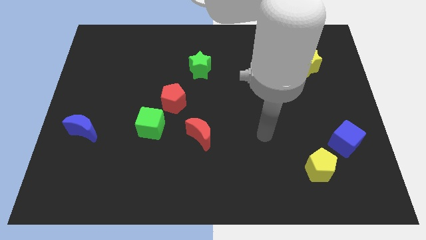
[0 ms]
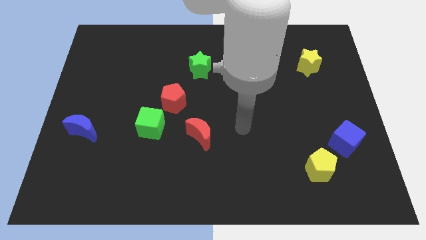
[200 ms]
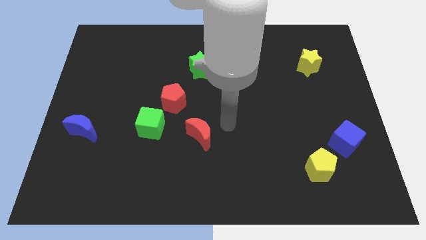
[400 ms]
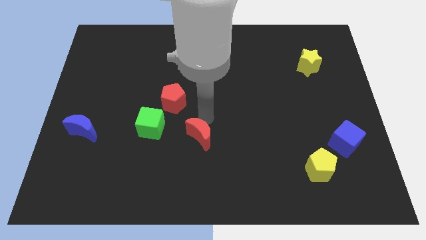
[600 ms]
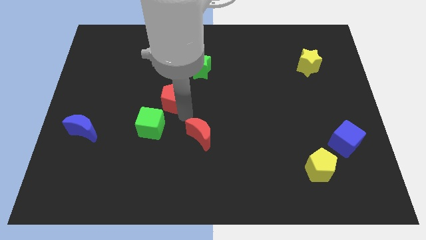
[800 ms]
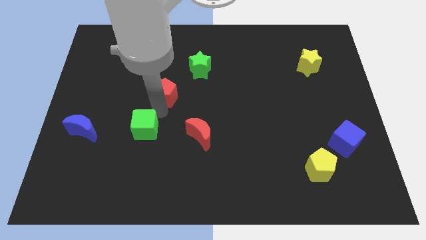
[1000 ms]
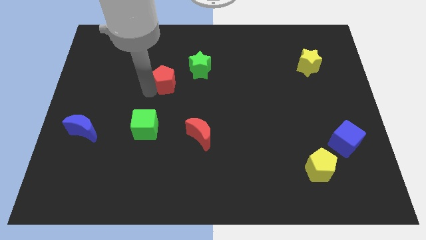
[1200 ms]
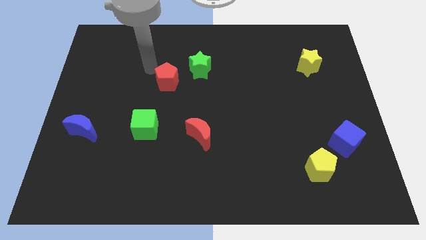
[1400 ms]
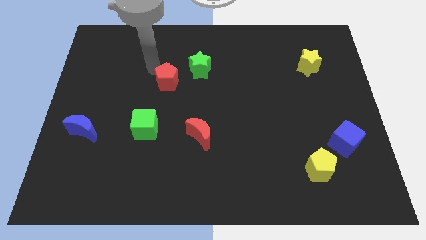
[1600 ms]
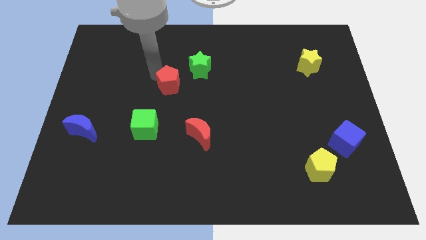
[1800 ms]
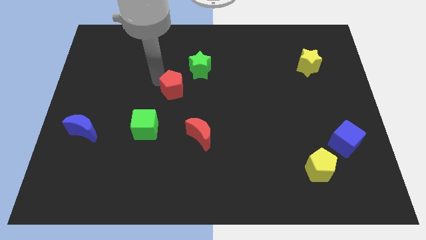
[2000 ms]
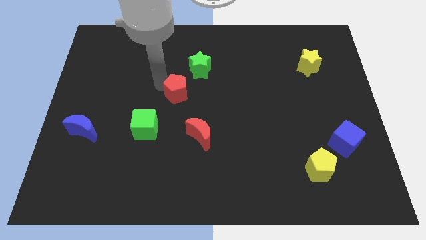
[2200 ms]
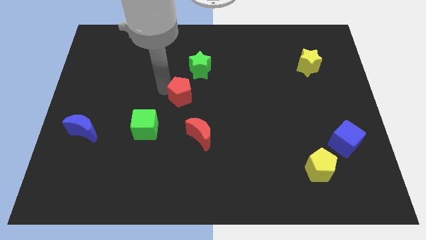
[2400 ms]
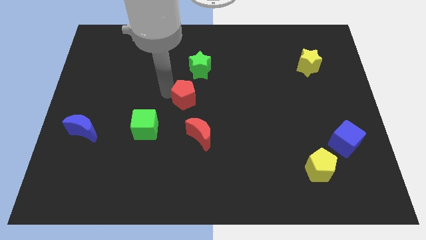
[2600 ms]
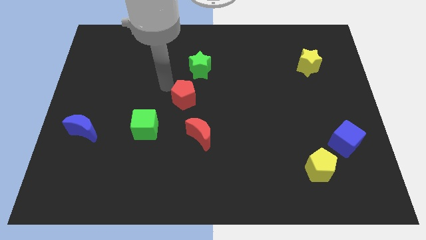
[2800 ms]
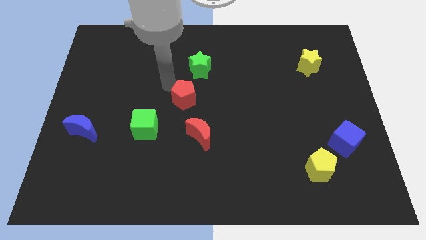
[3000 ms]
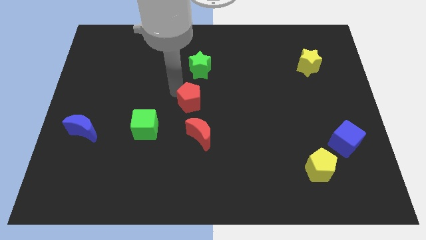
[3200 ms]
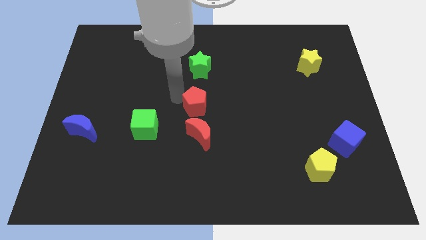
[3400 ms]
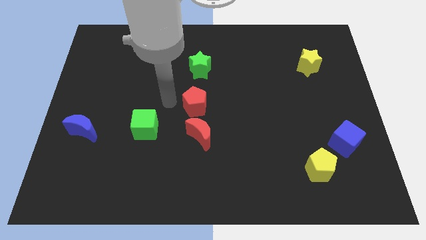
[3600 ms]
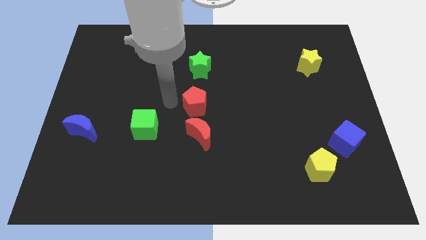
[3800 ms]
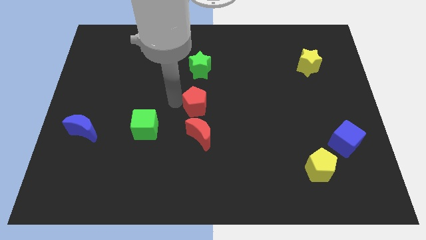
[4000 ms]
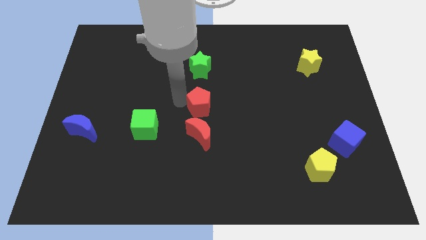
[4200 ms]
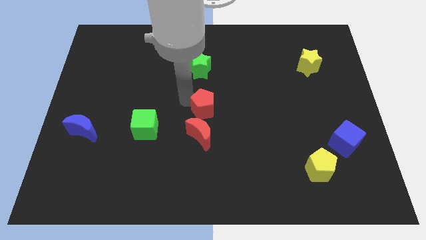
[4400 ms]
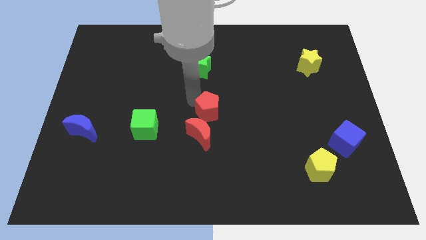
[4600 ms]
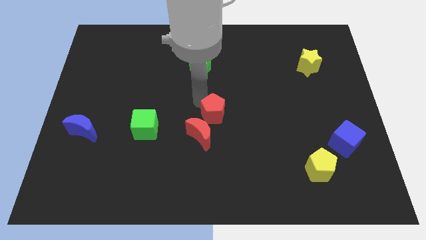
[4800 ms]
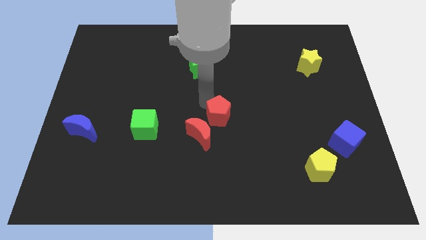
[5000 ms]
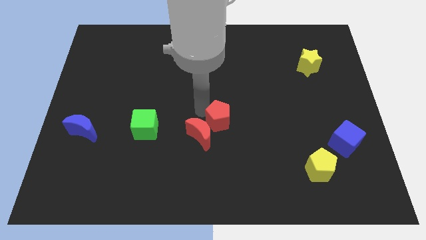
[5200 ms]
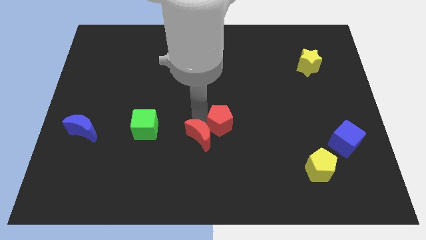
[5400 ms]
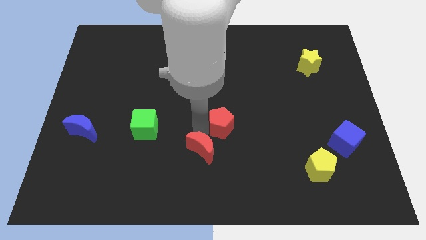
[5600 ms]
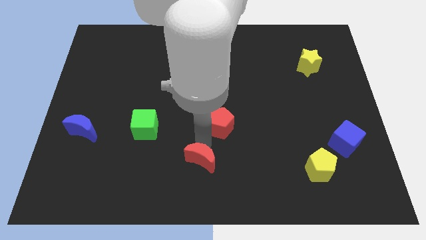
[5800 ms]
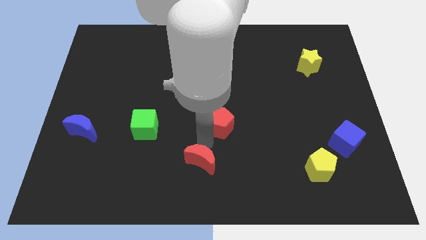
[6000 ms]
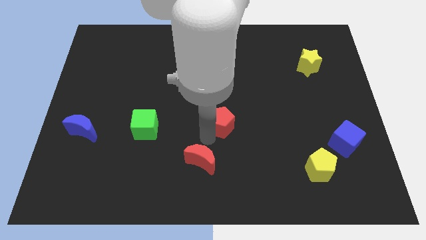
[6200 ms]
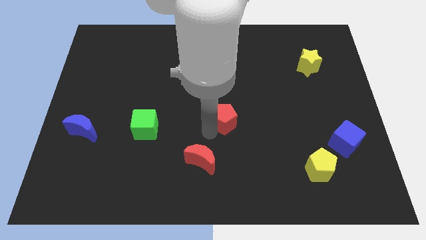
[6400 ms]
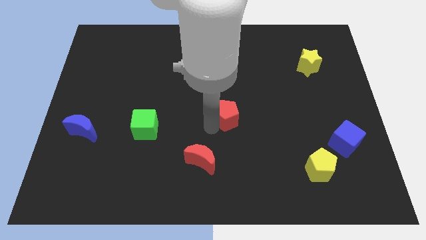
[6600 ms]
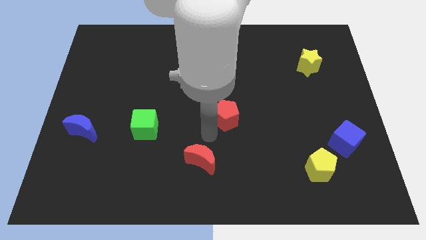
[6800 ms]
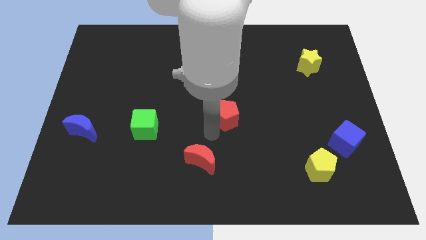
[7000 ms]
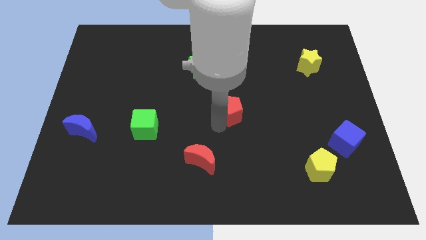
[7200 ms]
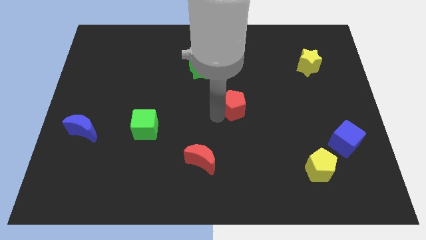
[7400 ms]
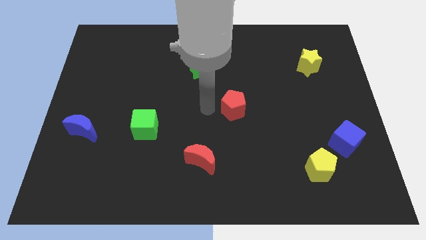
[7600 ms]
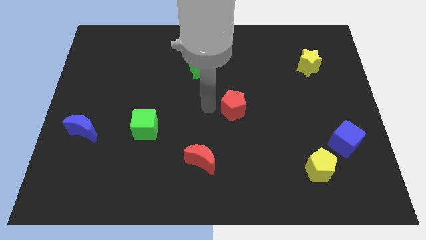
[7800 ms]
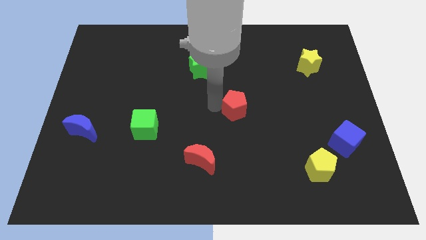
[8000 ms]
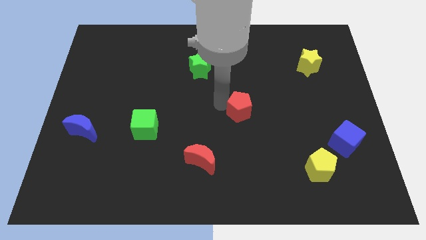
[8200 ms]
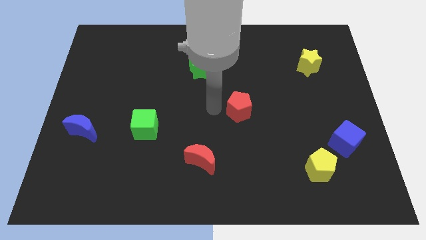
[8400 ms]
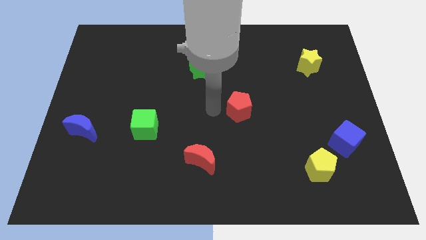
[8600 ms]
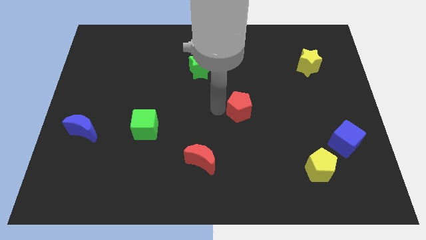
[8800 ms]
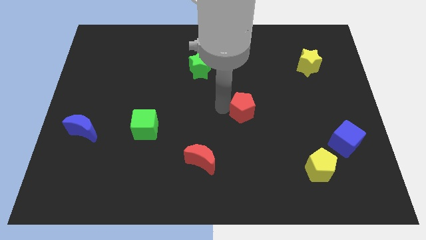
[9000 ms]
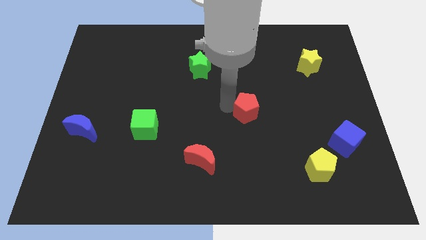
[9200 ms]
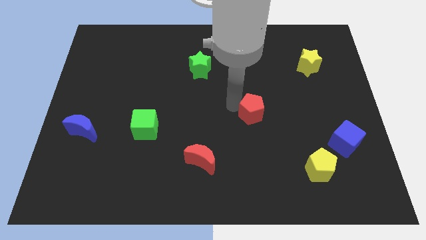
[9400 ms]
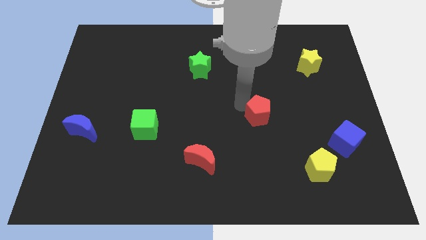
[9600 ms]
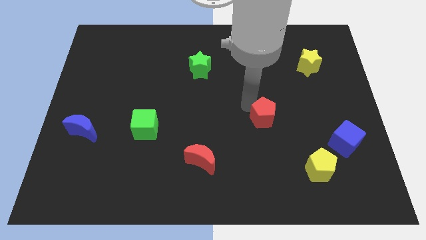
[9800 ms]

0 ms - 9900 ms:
move the red pentagon right

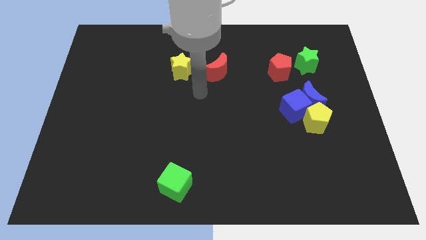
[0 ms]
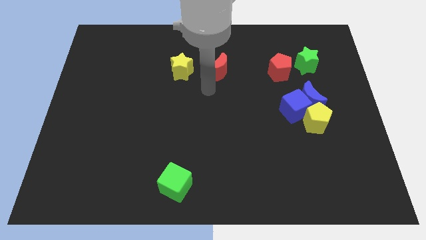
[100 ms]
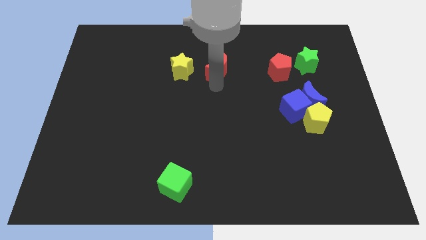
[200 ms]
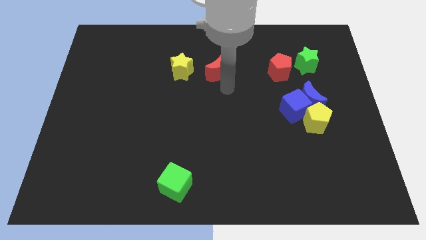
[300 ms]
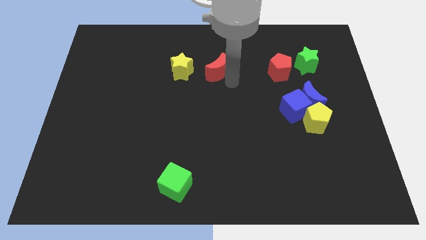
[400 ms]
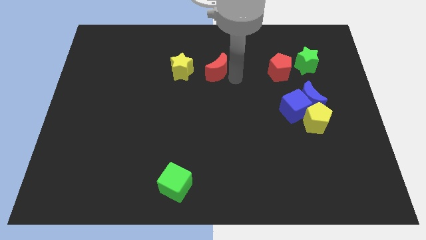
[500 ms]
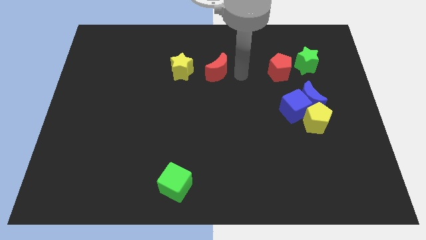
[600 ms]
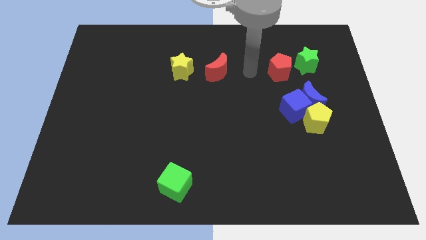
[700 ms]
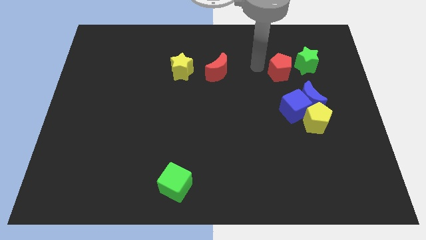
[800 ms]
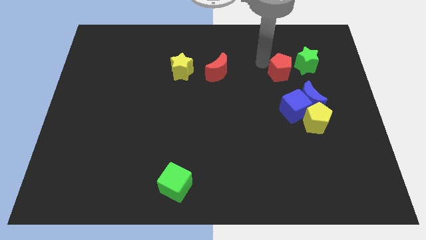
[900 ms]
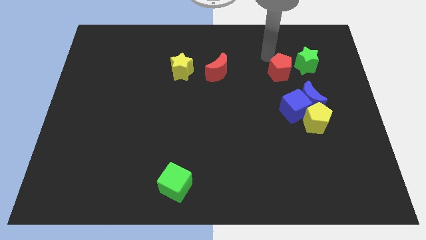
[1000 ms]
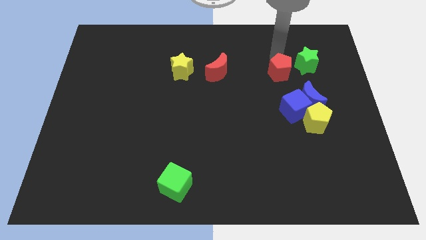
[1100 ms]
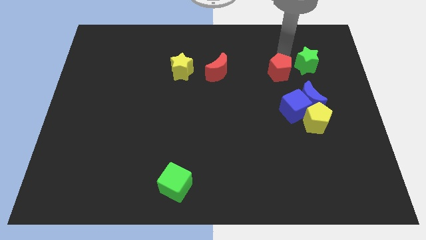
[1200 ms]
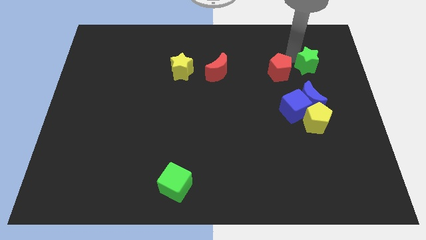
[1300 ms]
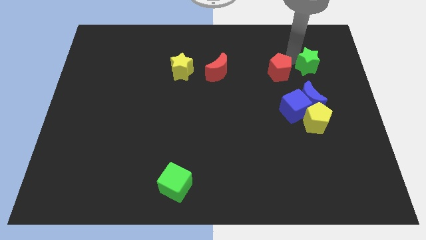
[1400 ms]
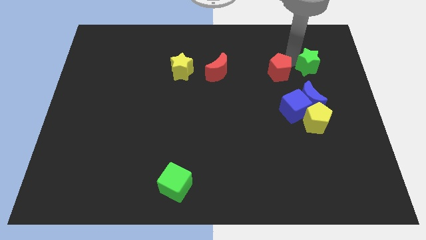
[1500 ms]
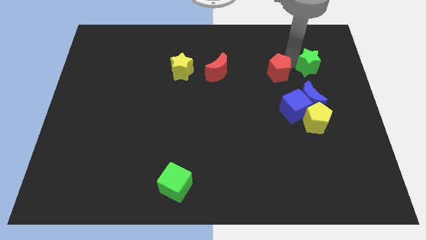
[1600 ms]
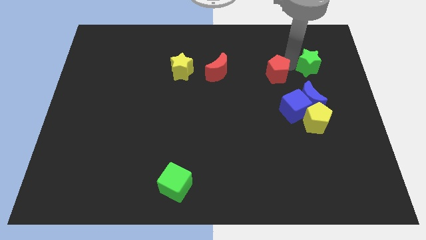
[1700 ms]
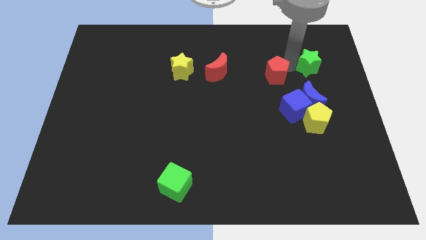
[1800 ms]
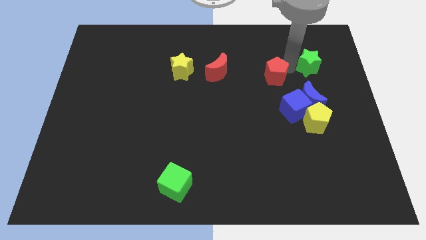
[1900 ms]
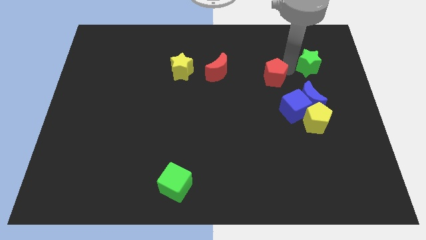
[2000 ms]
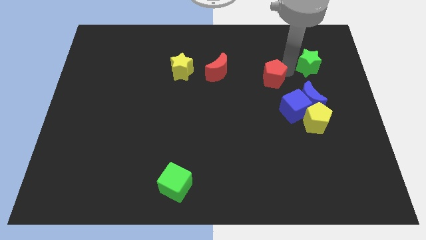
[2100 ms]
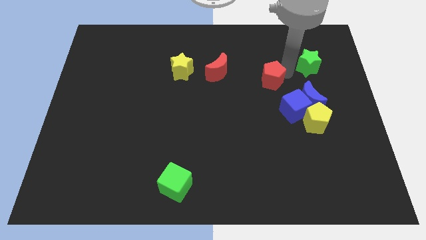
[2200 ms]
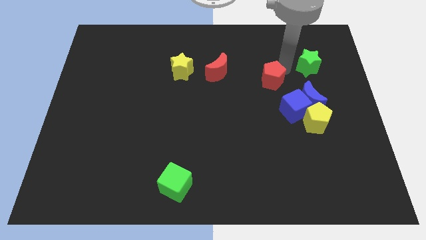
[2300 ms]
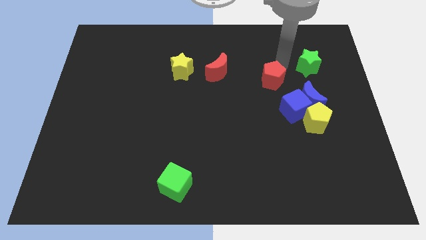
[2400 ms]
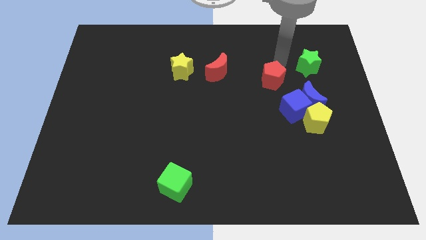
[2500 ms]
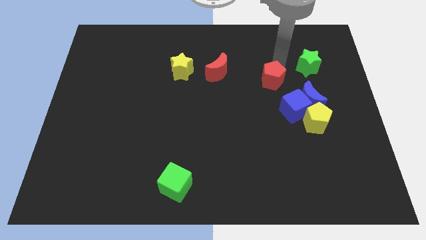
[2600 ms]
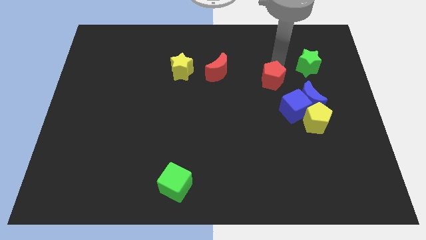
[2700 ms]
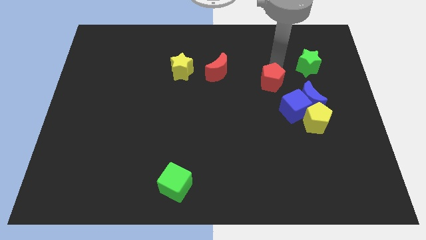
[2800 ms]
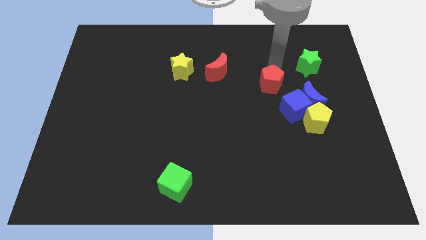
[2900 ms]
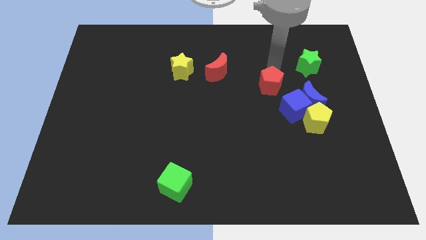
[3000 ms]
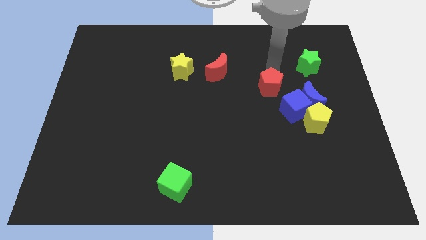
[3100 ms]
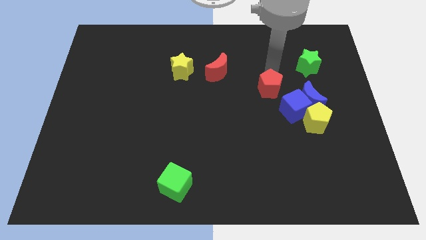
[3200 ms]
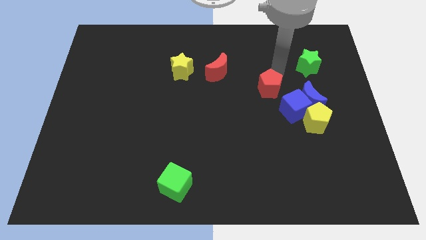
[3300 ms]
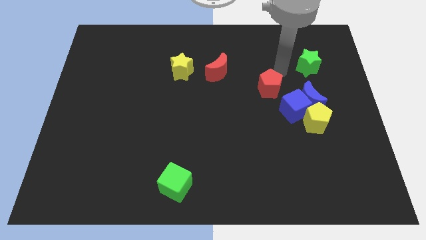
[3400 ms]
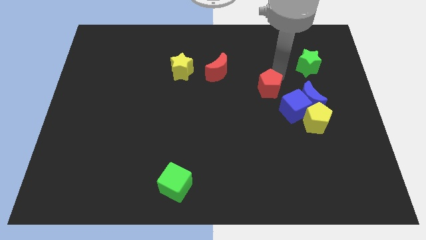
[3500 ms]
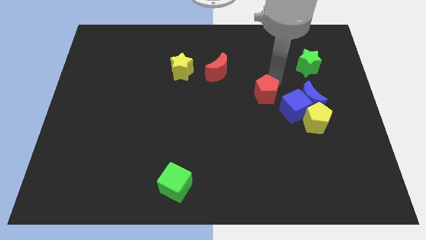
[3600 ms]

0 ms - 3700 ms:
slightly move the red pentagon down
